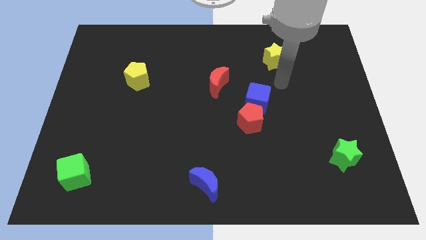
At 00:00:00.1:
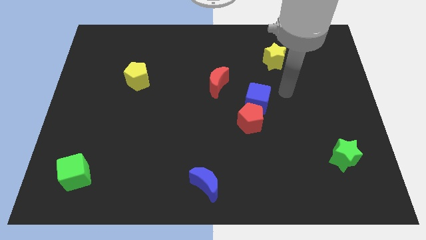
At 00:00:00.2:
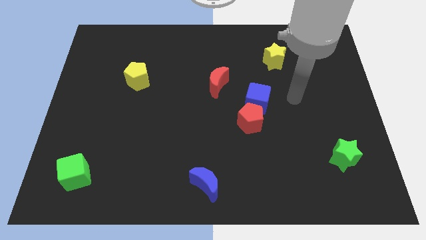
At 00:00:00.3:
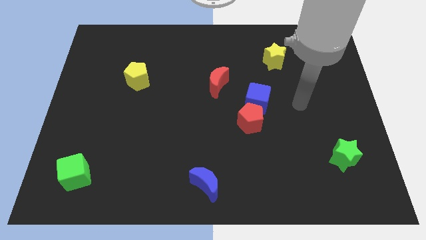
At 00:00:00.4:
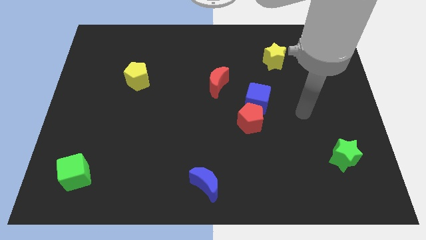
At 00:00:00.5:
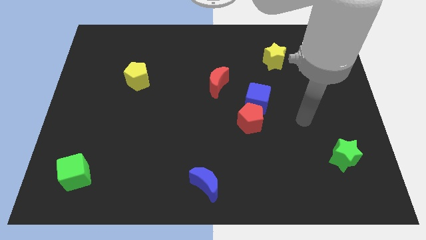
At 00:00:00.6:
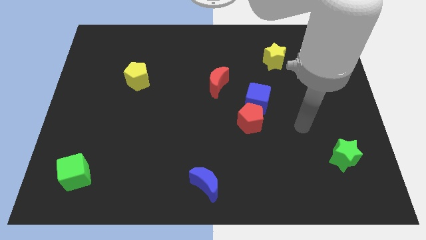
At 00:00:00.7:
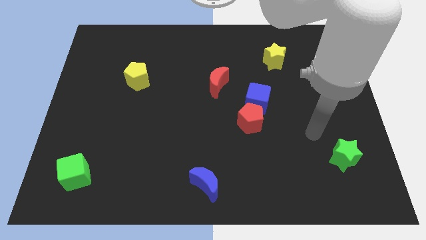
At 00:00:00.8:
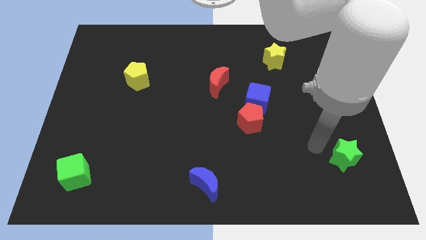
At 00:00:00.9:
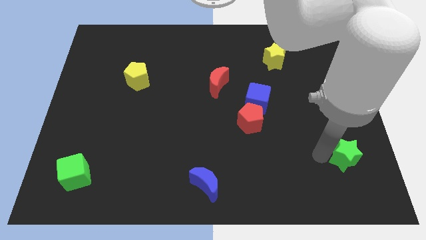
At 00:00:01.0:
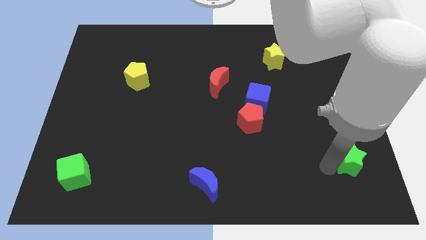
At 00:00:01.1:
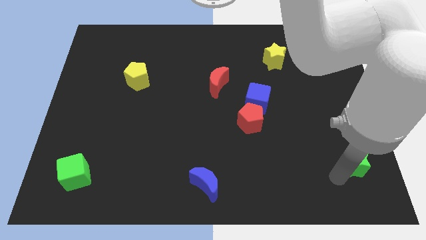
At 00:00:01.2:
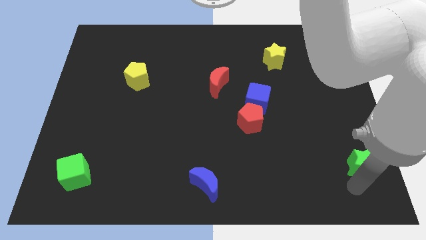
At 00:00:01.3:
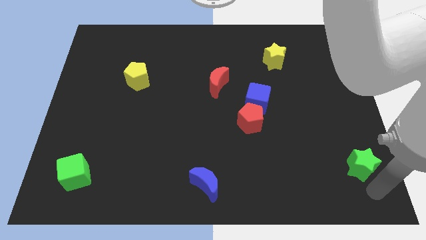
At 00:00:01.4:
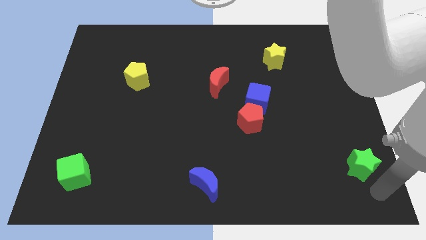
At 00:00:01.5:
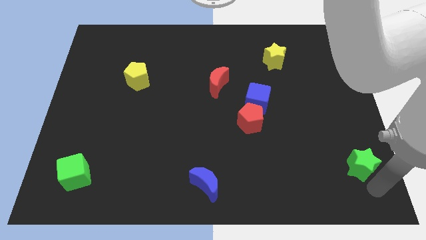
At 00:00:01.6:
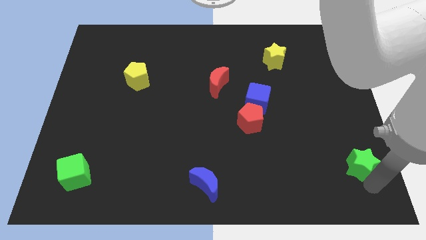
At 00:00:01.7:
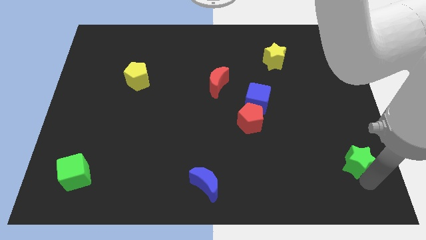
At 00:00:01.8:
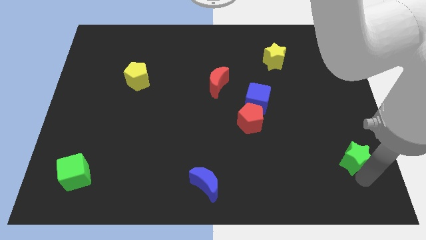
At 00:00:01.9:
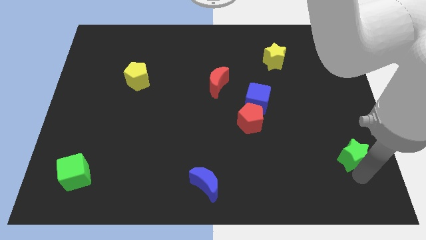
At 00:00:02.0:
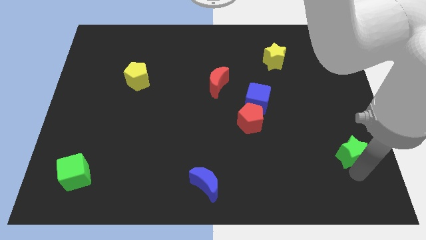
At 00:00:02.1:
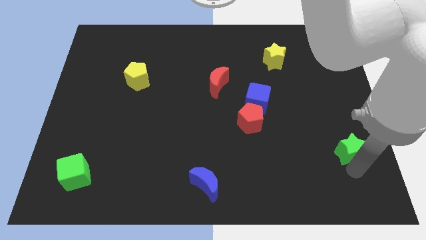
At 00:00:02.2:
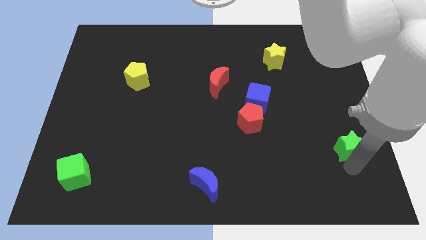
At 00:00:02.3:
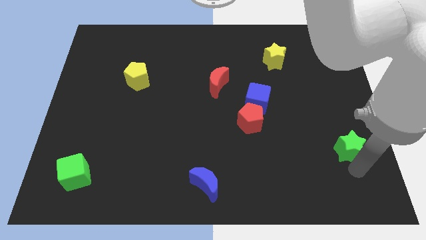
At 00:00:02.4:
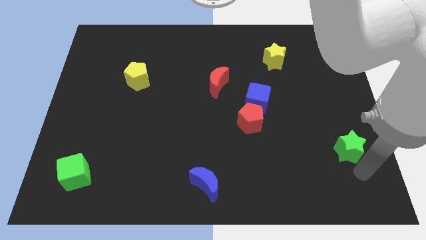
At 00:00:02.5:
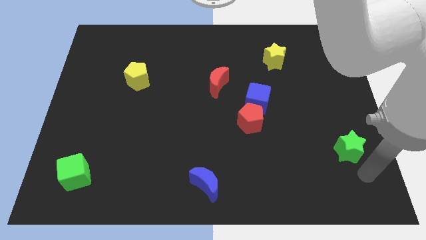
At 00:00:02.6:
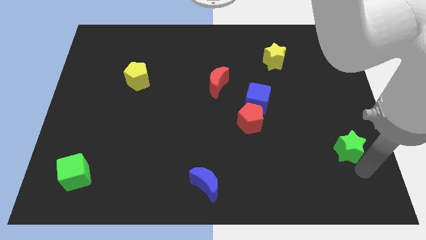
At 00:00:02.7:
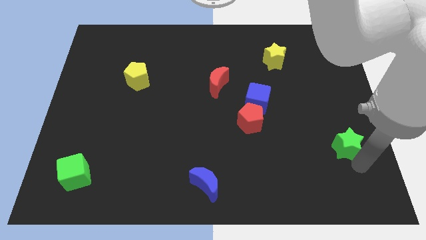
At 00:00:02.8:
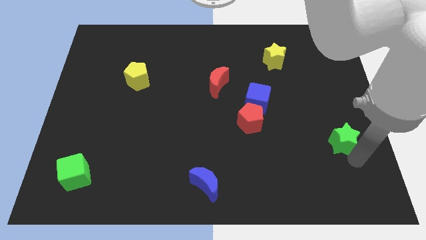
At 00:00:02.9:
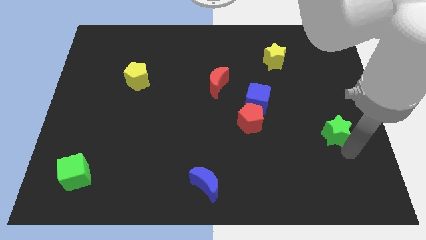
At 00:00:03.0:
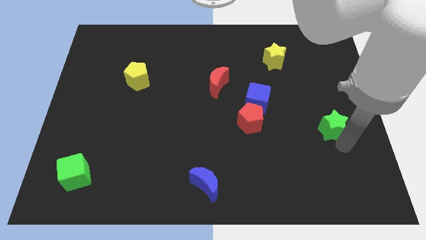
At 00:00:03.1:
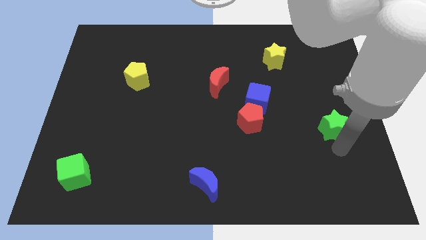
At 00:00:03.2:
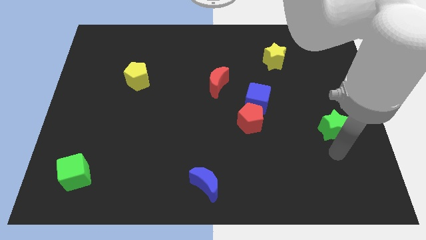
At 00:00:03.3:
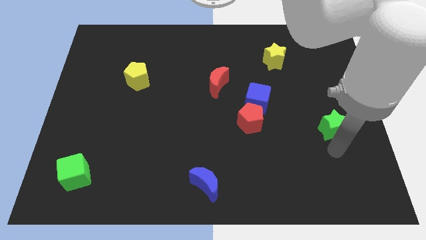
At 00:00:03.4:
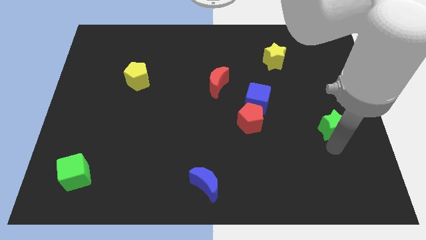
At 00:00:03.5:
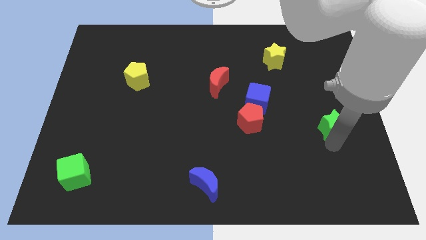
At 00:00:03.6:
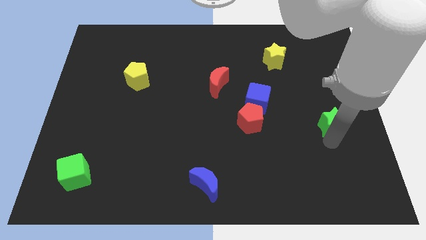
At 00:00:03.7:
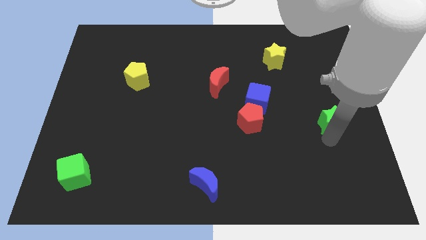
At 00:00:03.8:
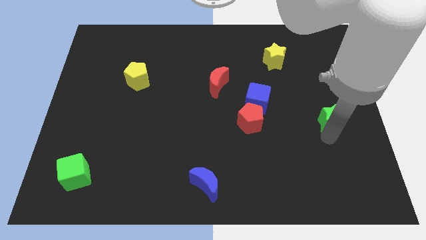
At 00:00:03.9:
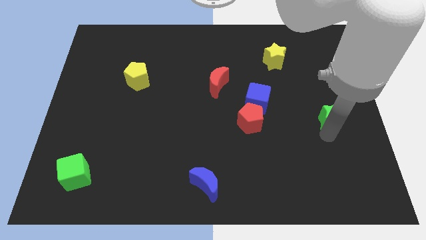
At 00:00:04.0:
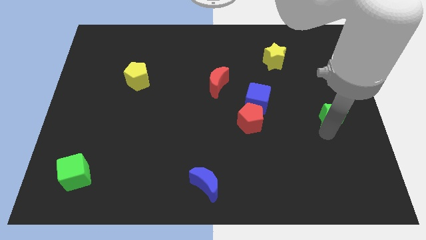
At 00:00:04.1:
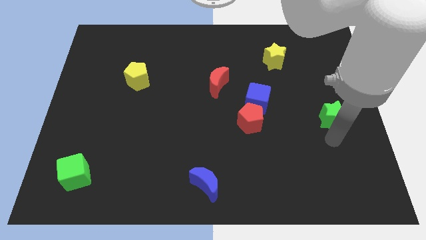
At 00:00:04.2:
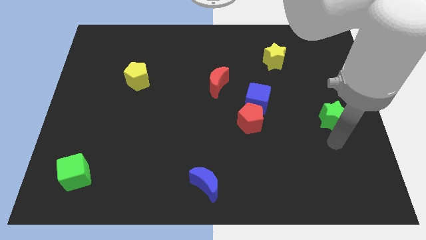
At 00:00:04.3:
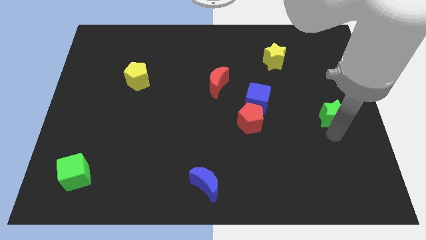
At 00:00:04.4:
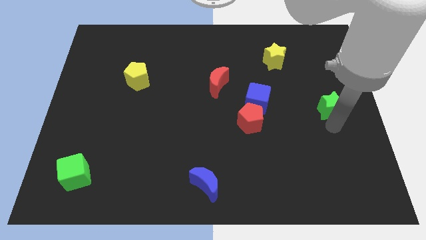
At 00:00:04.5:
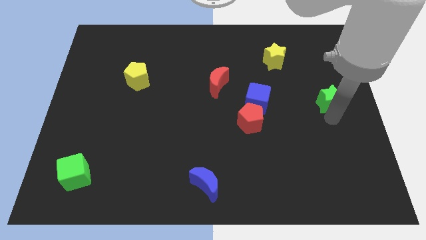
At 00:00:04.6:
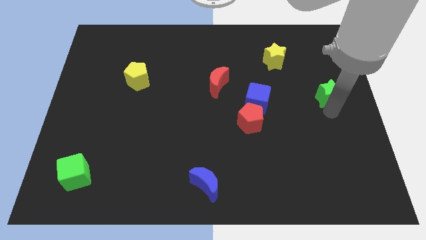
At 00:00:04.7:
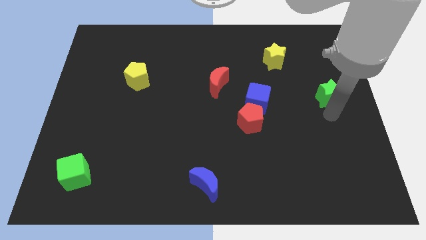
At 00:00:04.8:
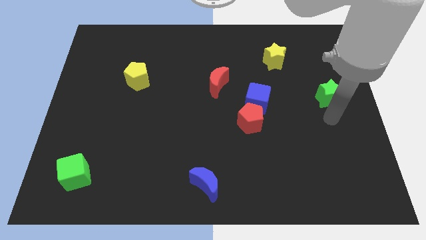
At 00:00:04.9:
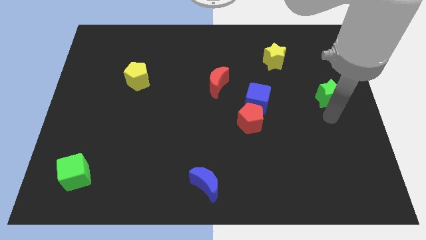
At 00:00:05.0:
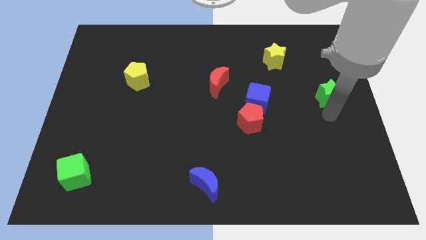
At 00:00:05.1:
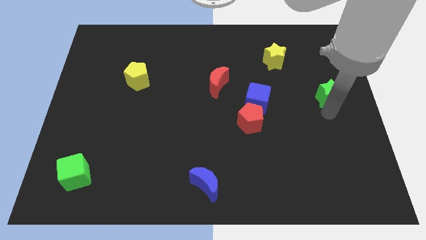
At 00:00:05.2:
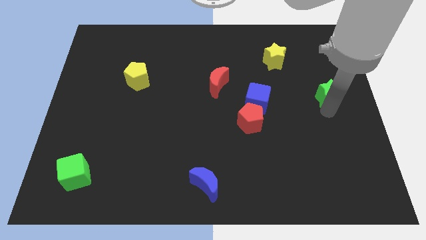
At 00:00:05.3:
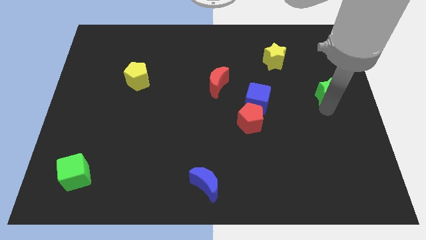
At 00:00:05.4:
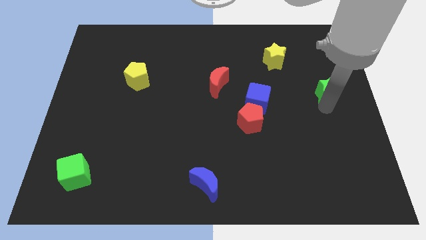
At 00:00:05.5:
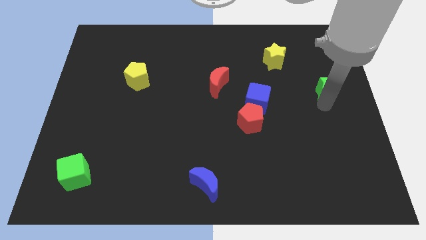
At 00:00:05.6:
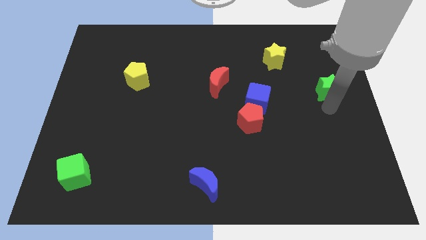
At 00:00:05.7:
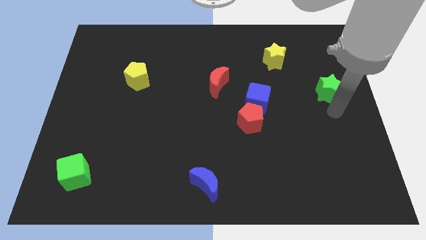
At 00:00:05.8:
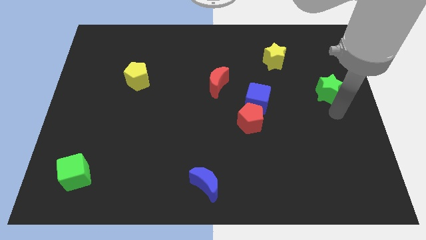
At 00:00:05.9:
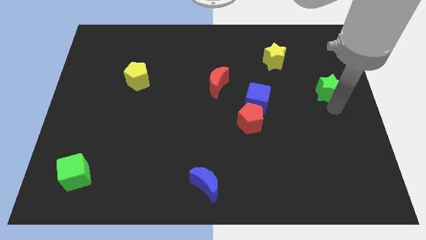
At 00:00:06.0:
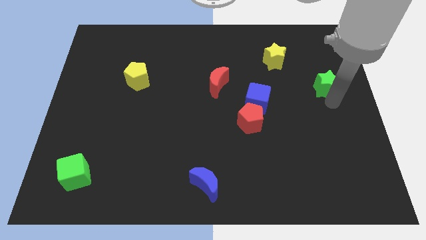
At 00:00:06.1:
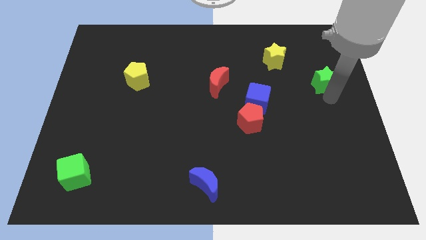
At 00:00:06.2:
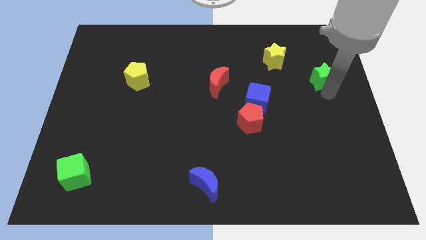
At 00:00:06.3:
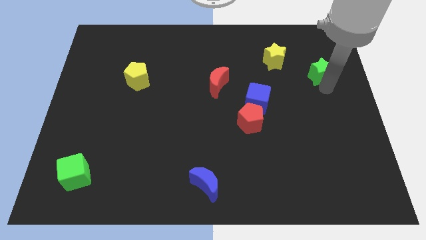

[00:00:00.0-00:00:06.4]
put the green star to the right of the yellow star

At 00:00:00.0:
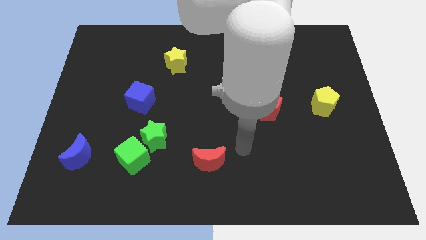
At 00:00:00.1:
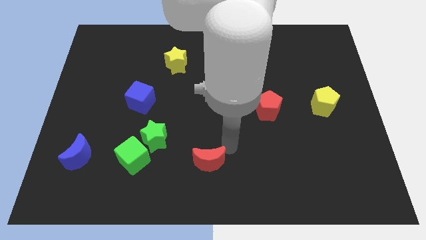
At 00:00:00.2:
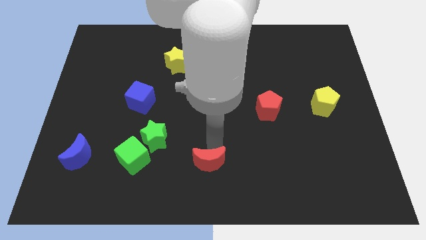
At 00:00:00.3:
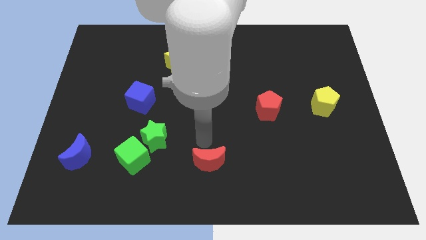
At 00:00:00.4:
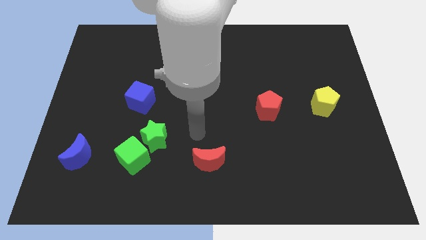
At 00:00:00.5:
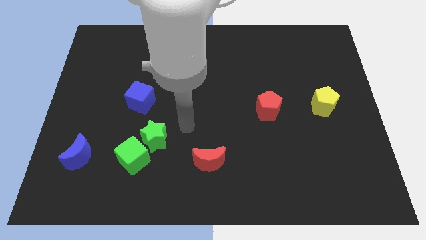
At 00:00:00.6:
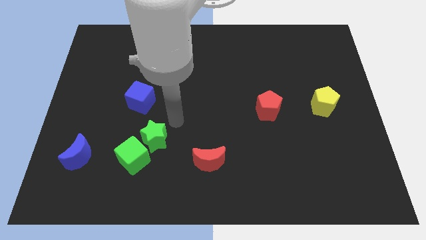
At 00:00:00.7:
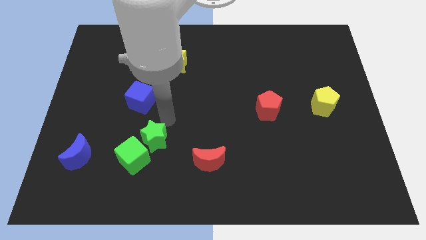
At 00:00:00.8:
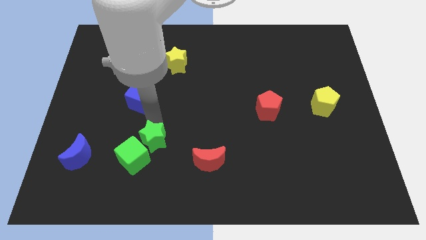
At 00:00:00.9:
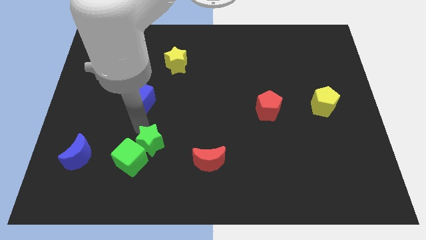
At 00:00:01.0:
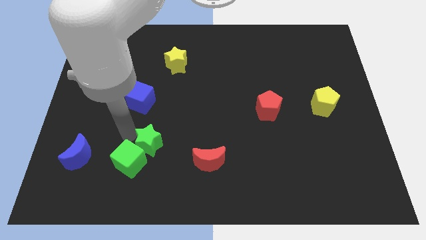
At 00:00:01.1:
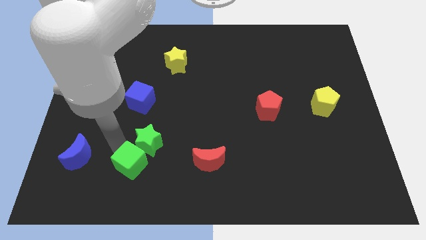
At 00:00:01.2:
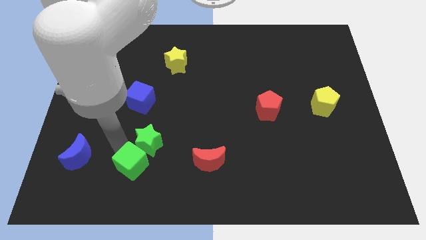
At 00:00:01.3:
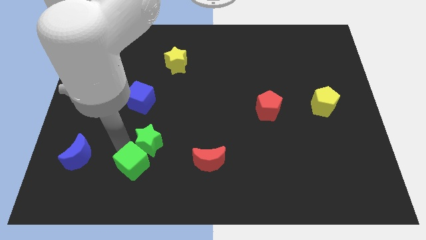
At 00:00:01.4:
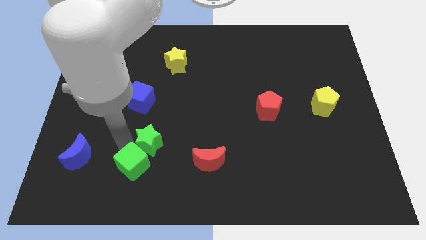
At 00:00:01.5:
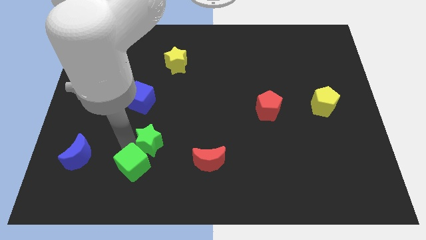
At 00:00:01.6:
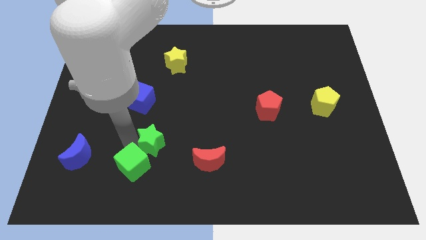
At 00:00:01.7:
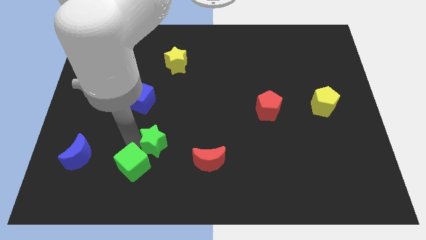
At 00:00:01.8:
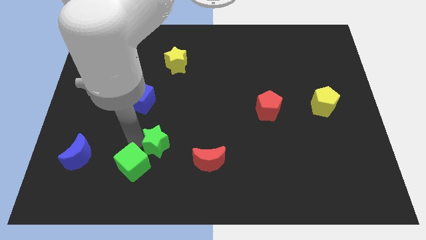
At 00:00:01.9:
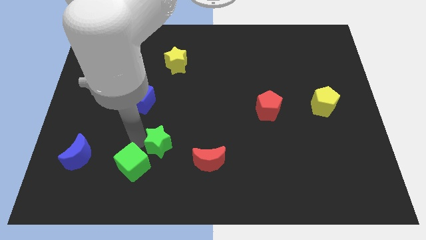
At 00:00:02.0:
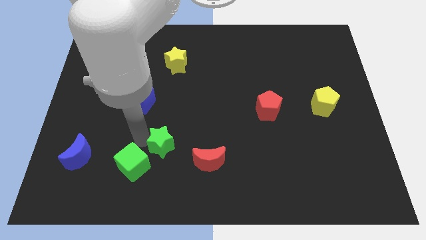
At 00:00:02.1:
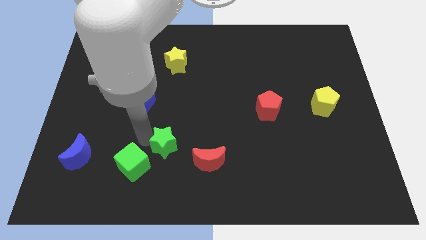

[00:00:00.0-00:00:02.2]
move the green star to the top left of the red moon

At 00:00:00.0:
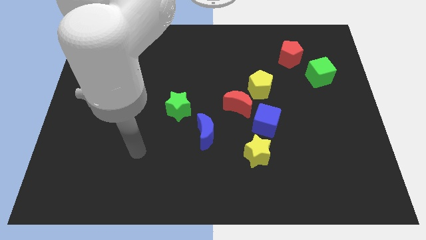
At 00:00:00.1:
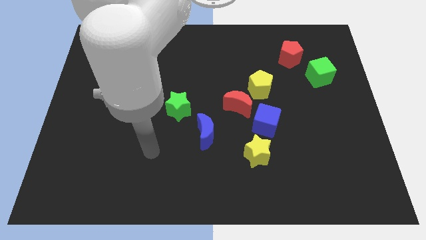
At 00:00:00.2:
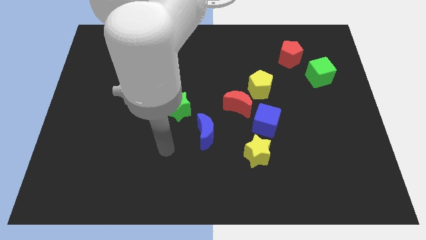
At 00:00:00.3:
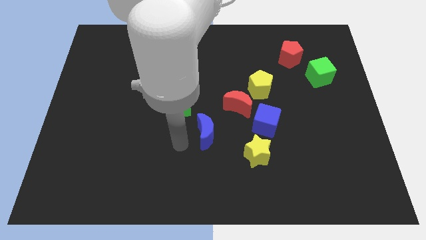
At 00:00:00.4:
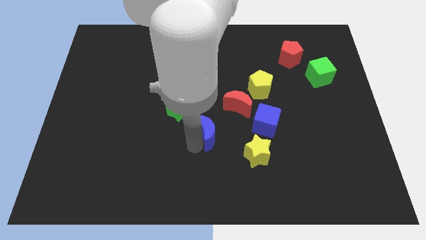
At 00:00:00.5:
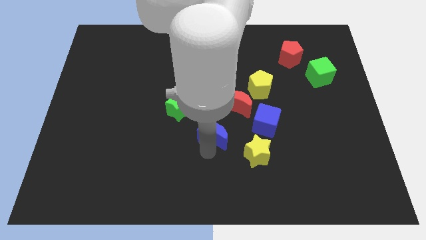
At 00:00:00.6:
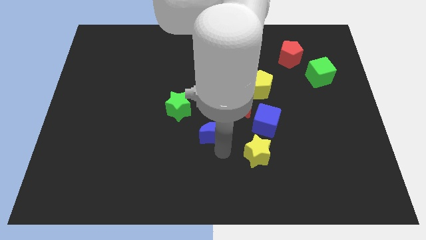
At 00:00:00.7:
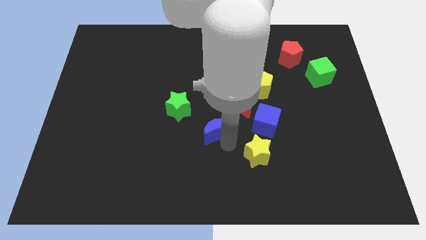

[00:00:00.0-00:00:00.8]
move the red moon to the top side of the blue moon
